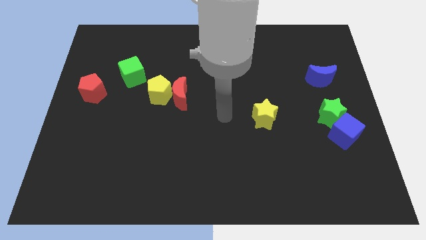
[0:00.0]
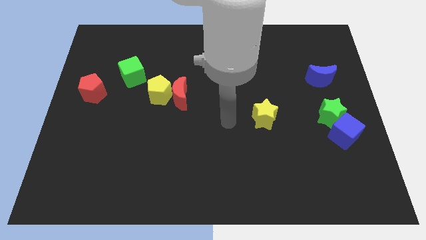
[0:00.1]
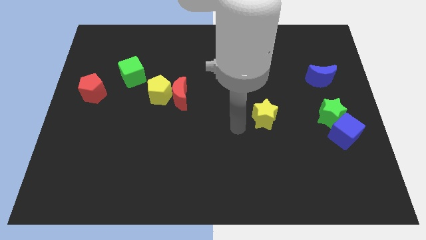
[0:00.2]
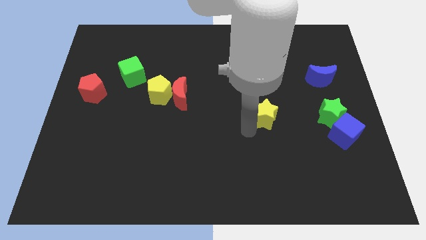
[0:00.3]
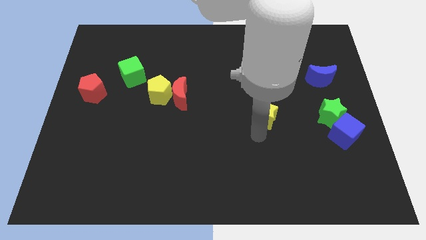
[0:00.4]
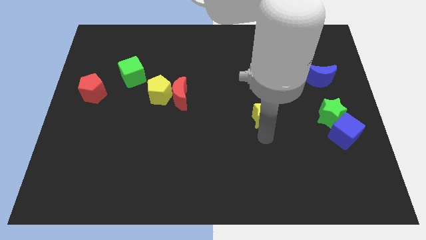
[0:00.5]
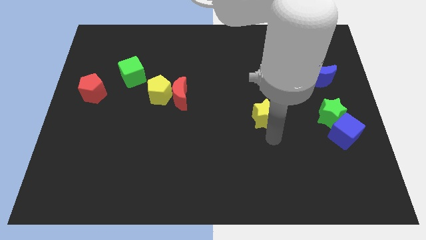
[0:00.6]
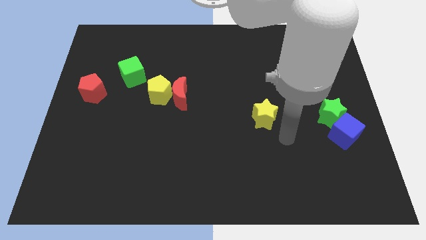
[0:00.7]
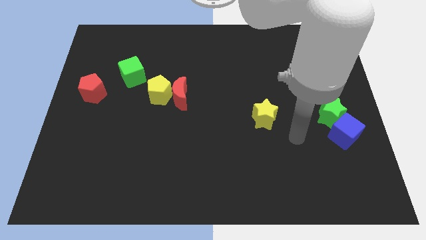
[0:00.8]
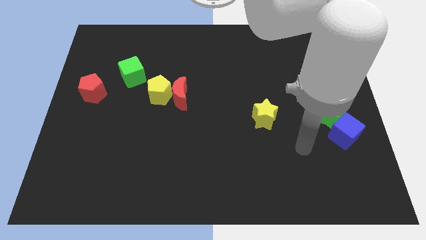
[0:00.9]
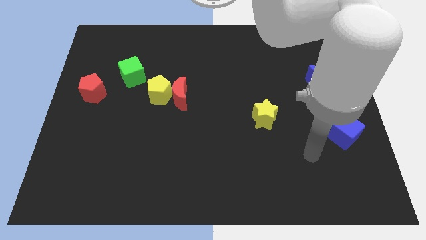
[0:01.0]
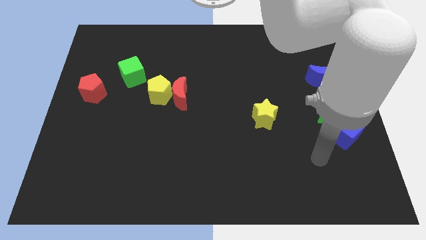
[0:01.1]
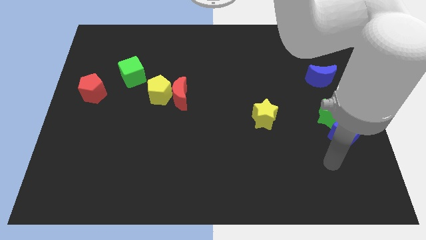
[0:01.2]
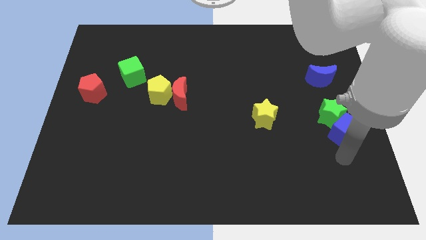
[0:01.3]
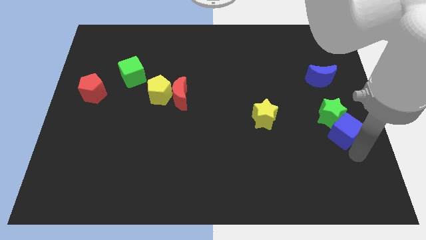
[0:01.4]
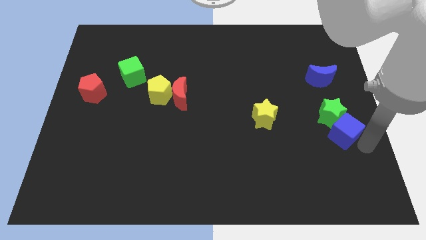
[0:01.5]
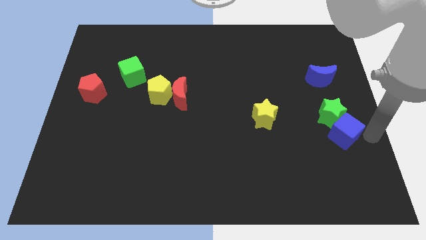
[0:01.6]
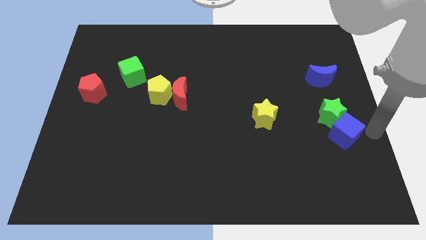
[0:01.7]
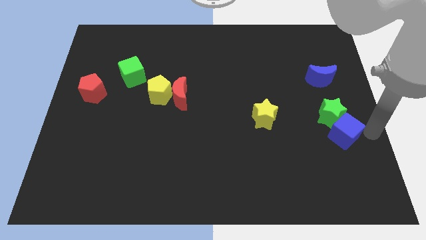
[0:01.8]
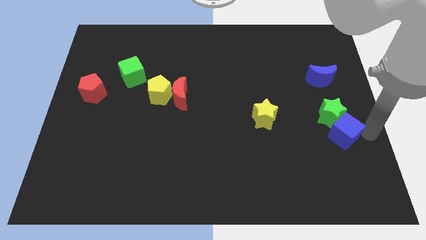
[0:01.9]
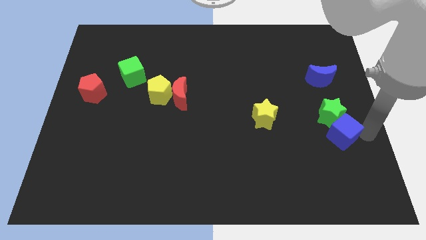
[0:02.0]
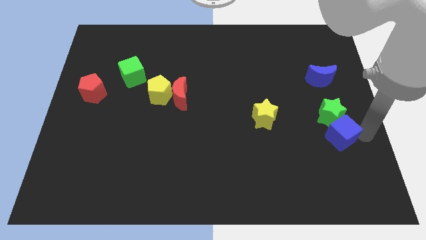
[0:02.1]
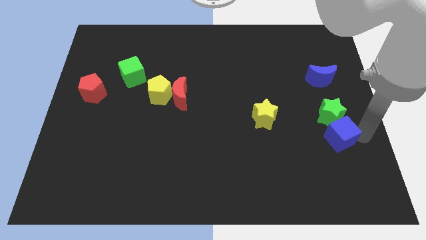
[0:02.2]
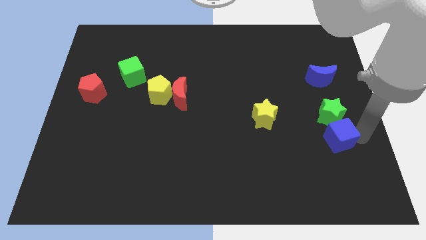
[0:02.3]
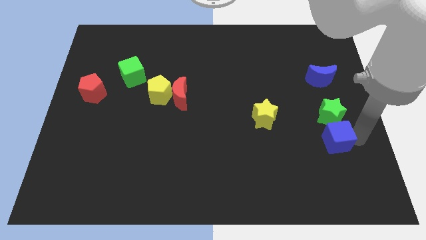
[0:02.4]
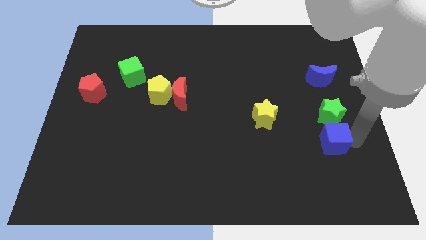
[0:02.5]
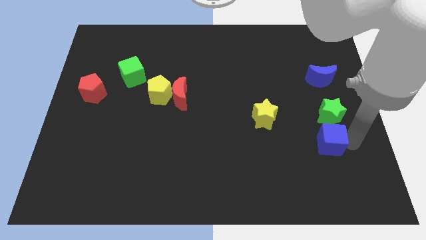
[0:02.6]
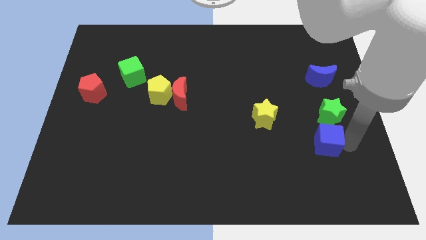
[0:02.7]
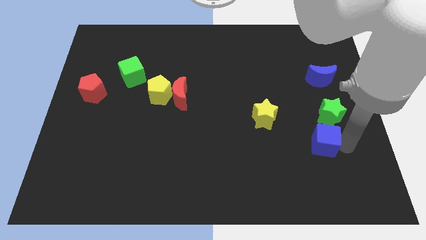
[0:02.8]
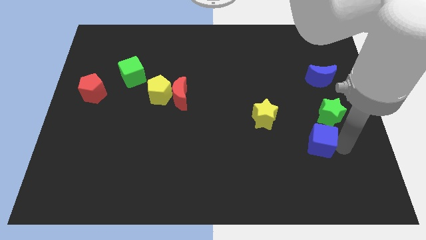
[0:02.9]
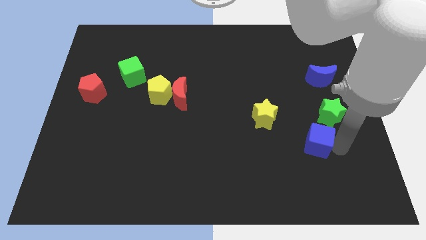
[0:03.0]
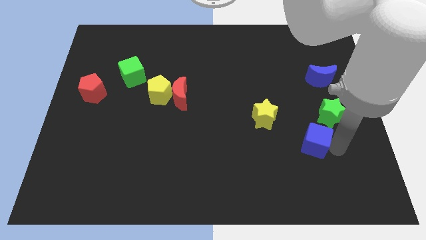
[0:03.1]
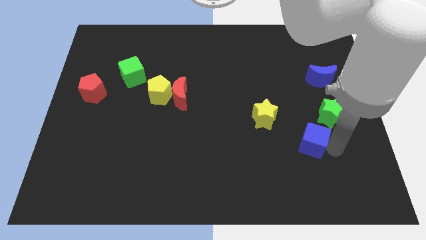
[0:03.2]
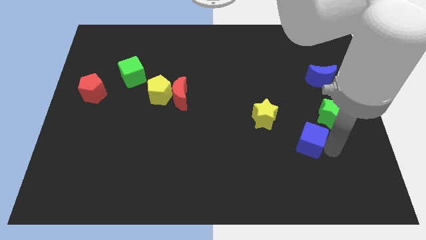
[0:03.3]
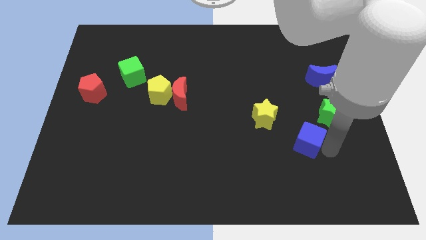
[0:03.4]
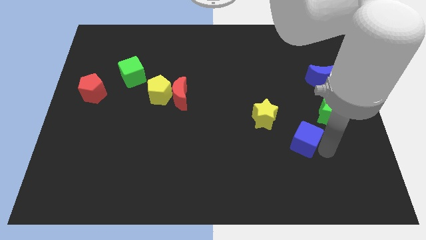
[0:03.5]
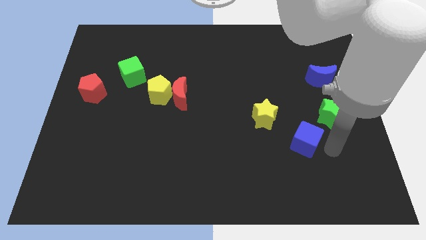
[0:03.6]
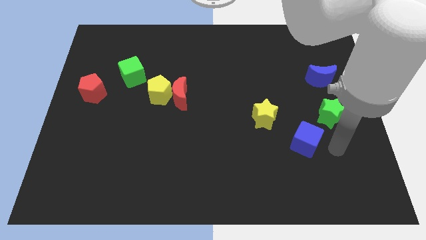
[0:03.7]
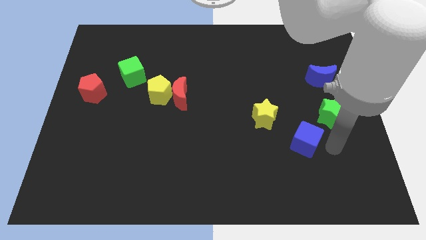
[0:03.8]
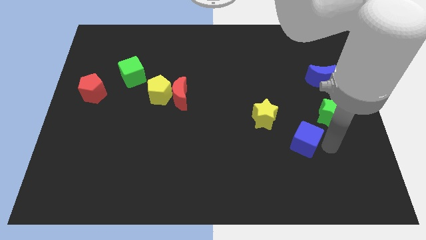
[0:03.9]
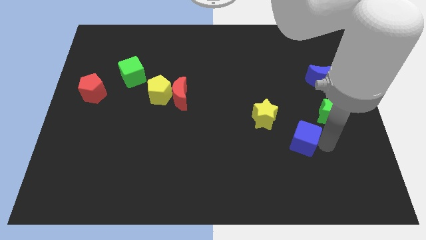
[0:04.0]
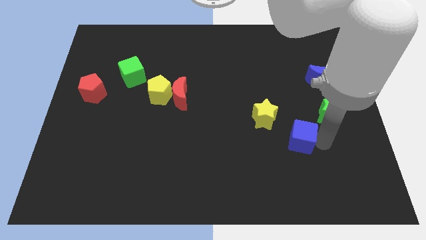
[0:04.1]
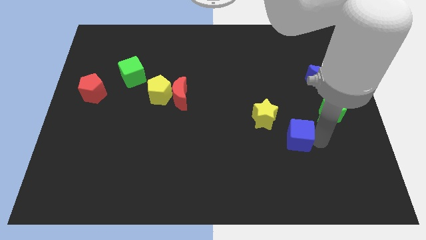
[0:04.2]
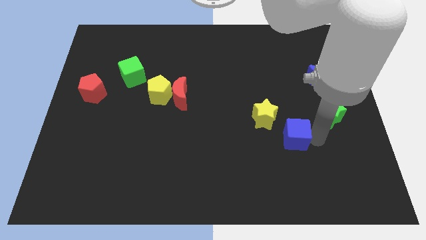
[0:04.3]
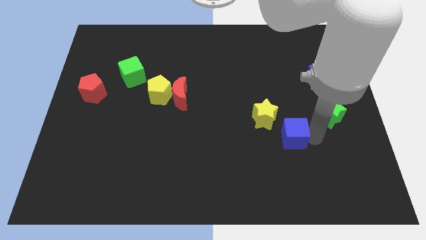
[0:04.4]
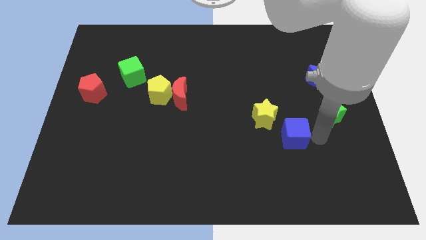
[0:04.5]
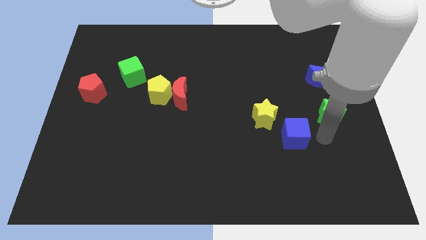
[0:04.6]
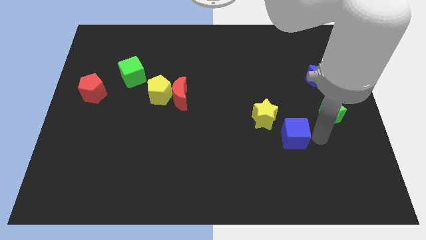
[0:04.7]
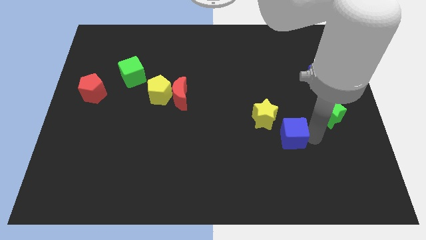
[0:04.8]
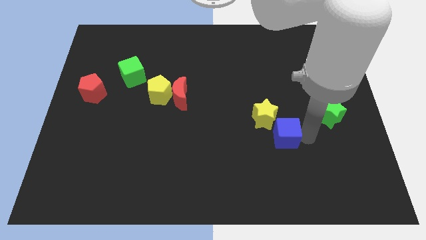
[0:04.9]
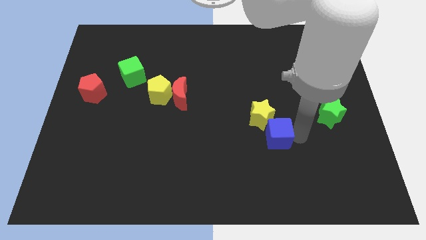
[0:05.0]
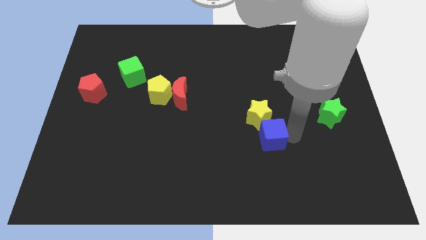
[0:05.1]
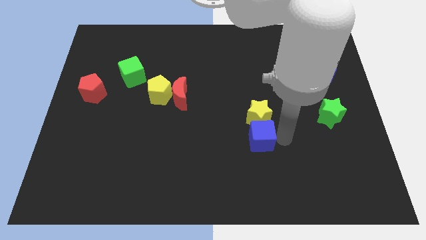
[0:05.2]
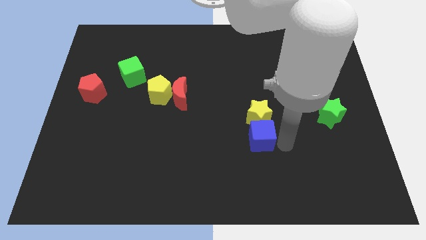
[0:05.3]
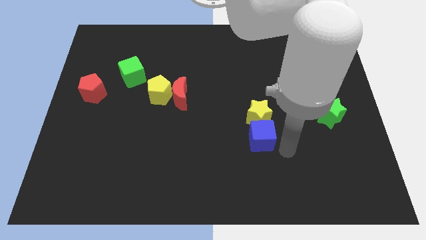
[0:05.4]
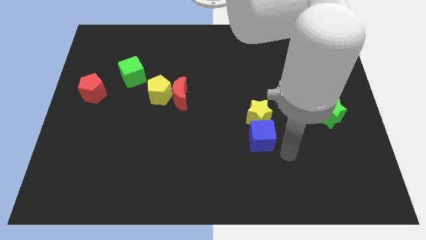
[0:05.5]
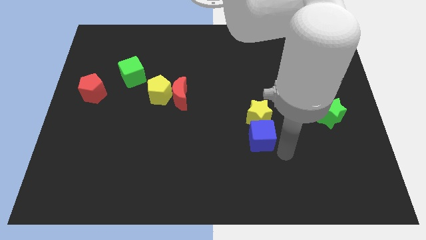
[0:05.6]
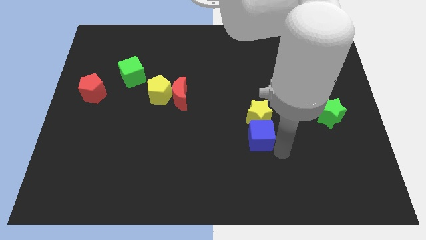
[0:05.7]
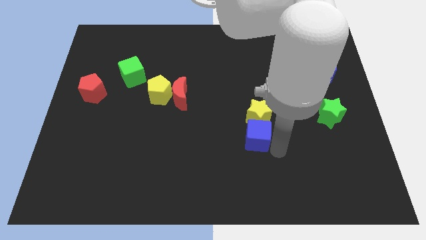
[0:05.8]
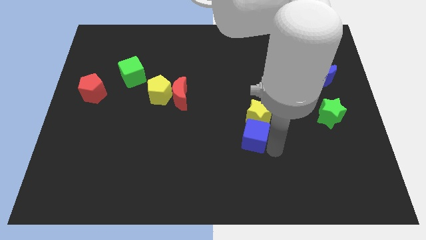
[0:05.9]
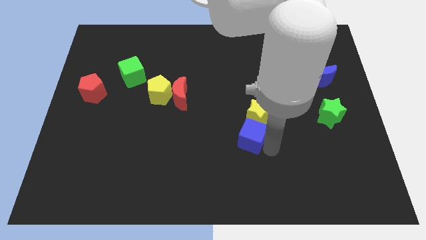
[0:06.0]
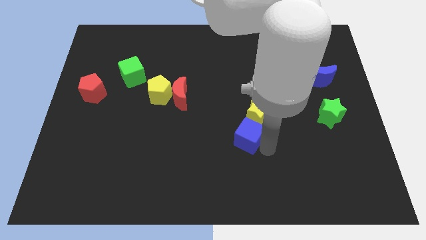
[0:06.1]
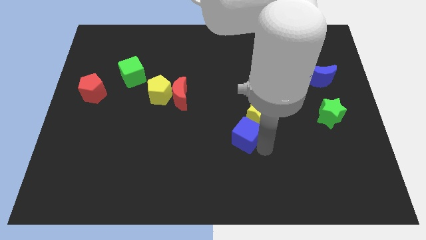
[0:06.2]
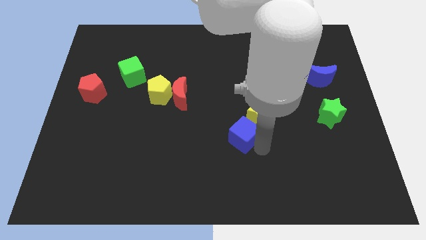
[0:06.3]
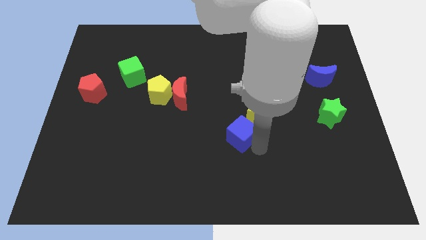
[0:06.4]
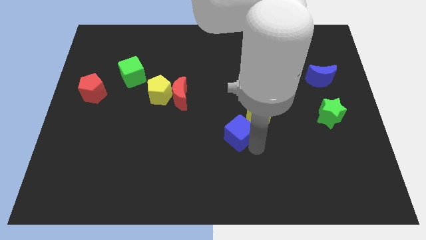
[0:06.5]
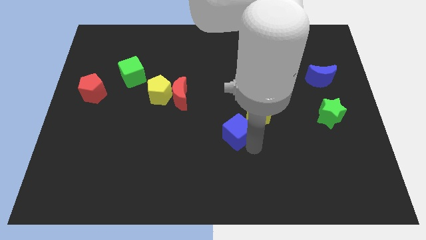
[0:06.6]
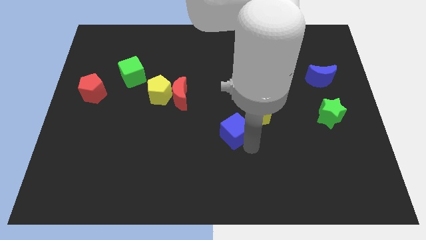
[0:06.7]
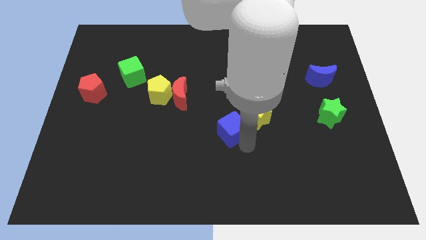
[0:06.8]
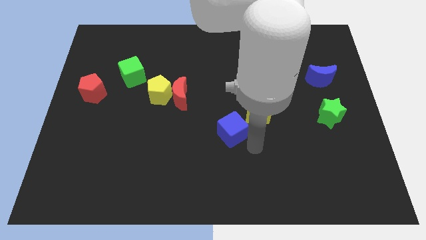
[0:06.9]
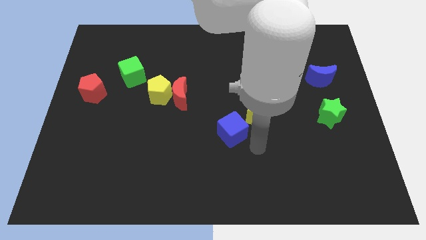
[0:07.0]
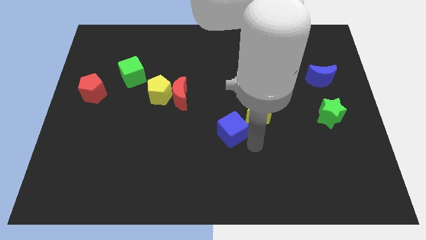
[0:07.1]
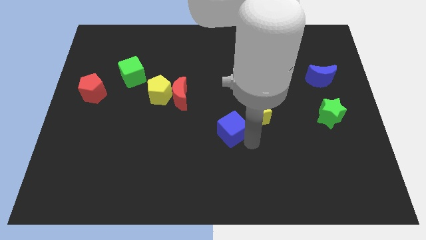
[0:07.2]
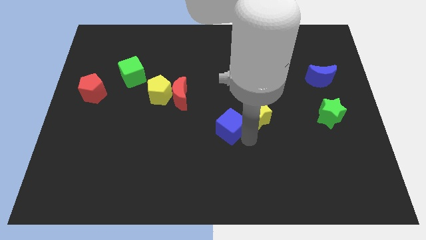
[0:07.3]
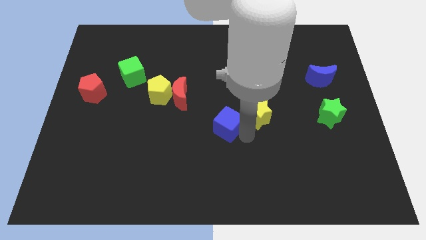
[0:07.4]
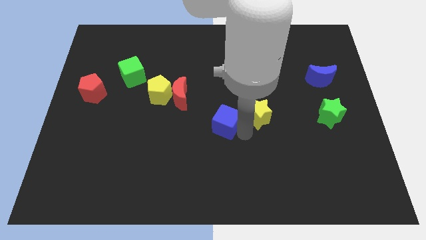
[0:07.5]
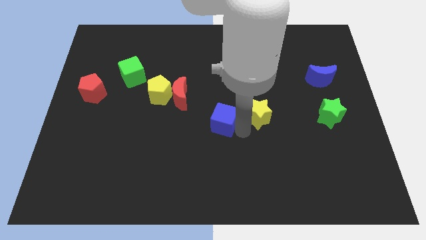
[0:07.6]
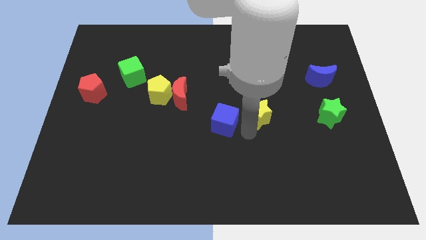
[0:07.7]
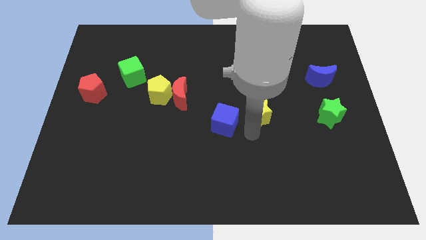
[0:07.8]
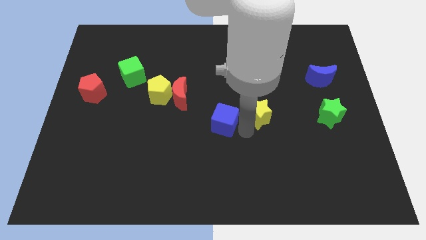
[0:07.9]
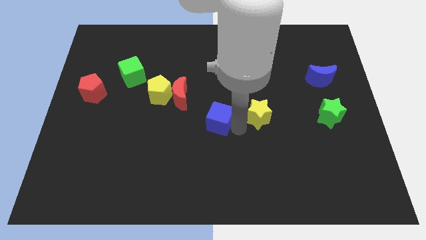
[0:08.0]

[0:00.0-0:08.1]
move the blue cube to the bottom right side of the red moon
